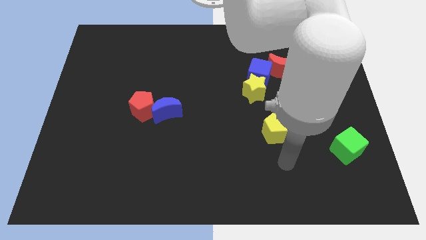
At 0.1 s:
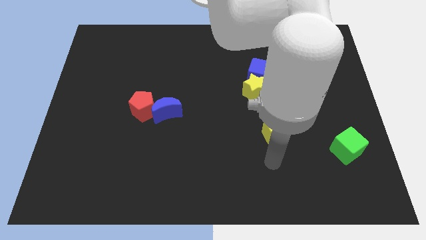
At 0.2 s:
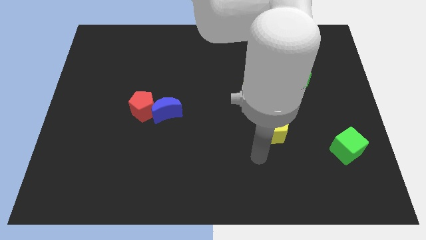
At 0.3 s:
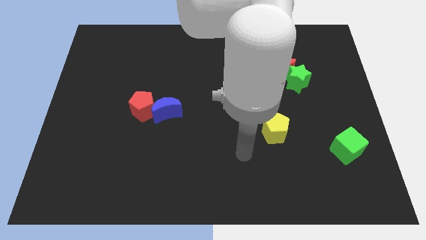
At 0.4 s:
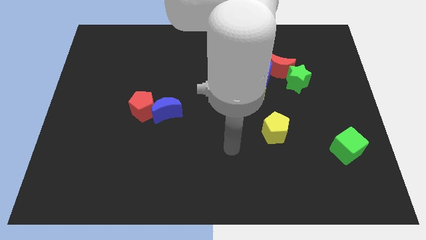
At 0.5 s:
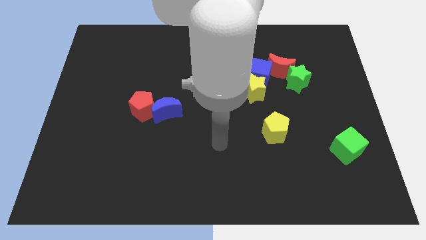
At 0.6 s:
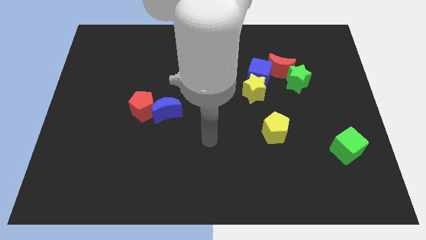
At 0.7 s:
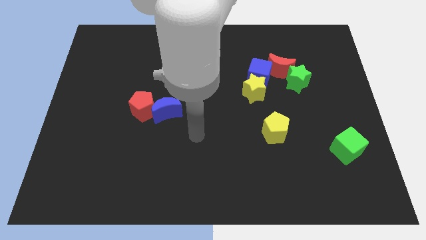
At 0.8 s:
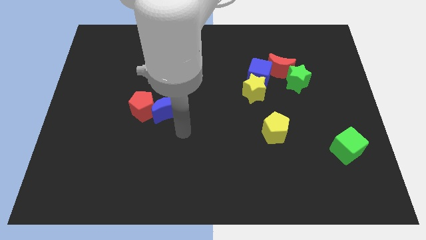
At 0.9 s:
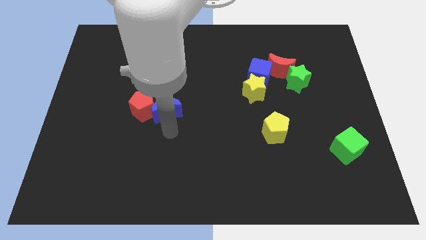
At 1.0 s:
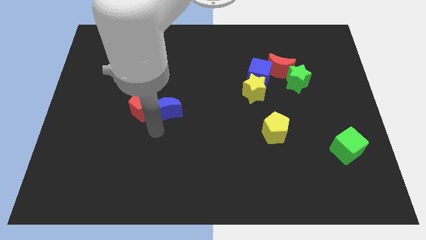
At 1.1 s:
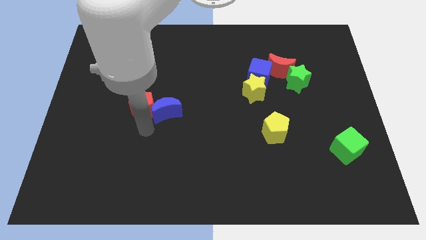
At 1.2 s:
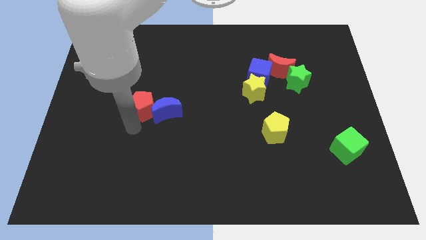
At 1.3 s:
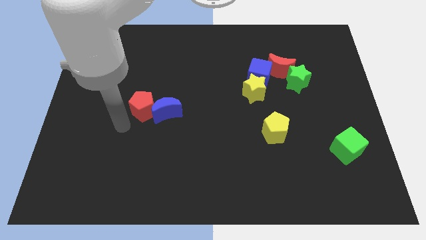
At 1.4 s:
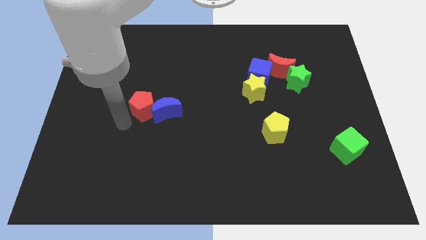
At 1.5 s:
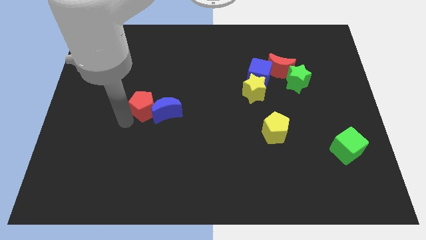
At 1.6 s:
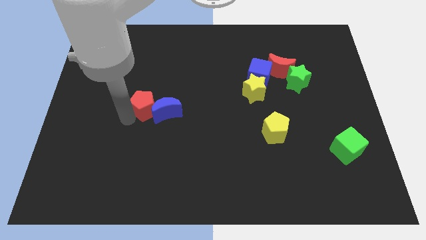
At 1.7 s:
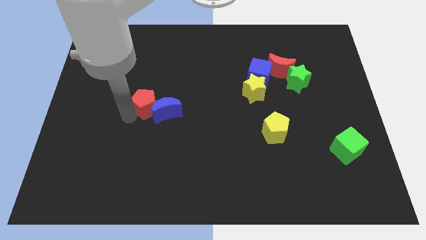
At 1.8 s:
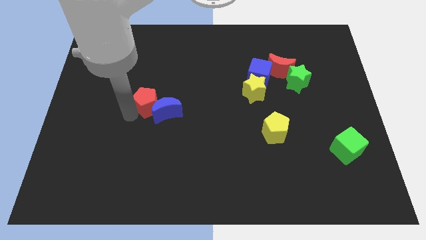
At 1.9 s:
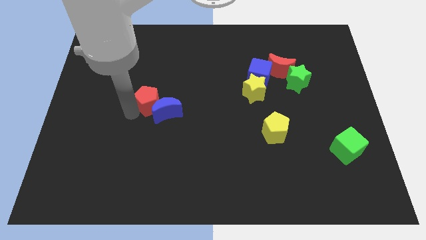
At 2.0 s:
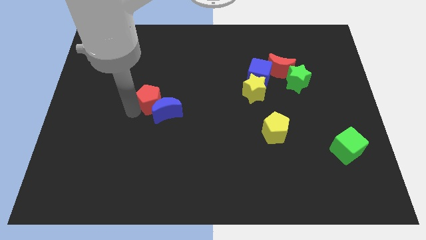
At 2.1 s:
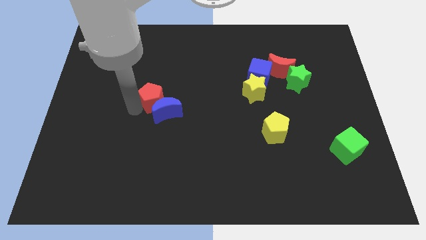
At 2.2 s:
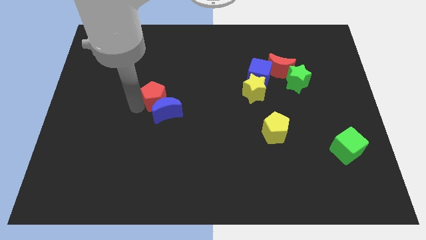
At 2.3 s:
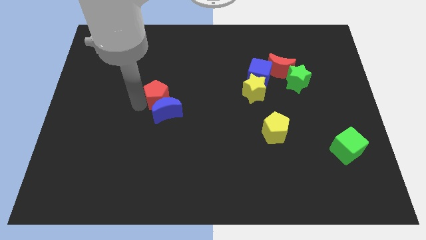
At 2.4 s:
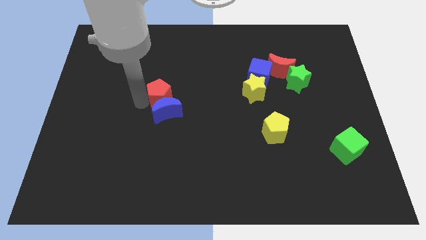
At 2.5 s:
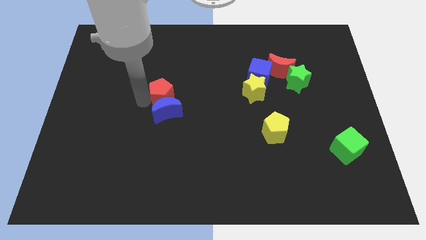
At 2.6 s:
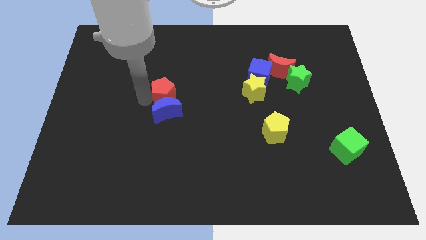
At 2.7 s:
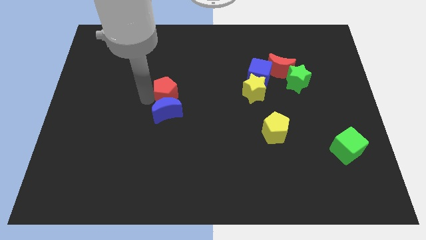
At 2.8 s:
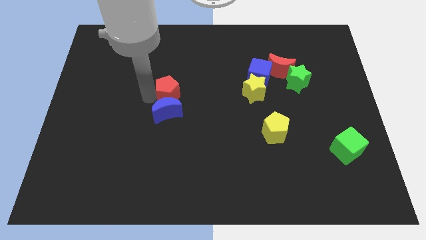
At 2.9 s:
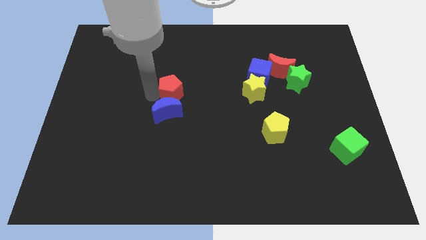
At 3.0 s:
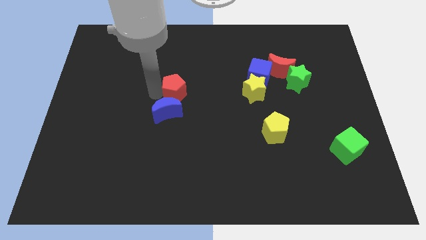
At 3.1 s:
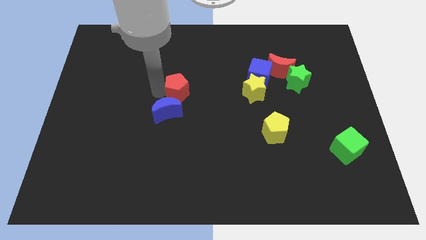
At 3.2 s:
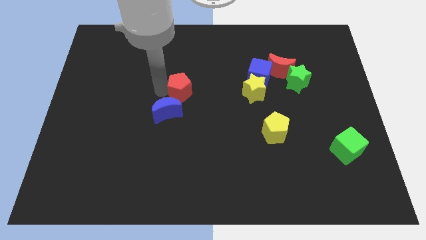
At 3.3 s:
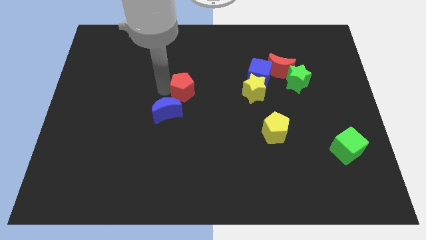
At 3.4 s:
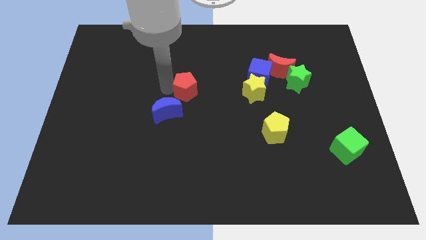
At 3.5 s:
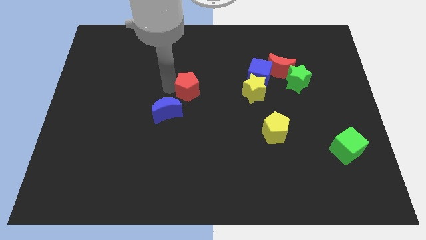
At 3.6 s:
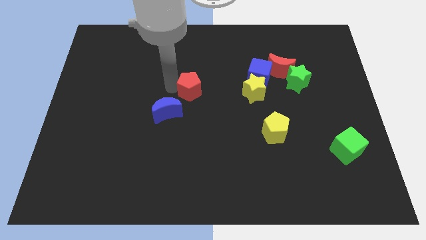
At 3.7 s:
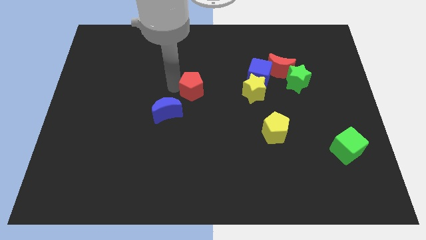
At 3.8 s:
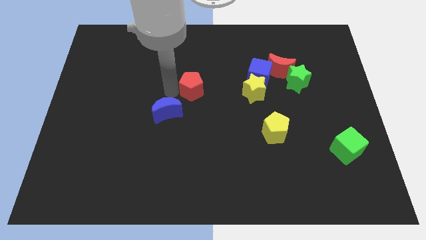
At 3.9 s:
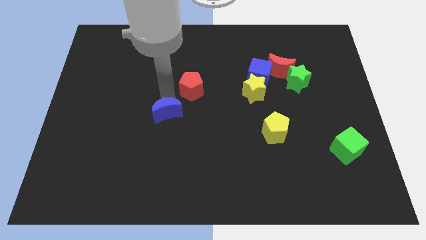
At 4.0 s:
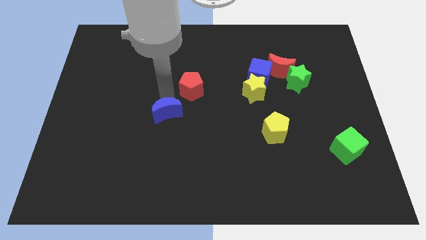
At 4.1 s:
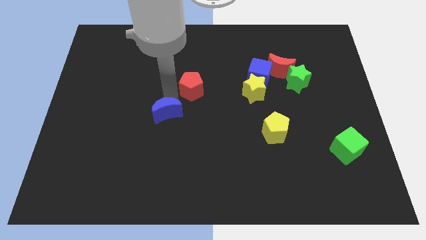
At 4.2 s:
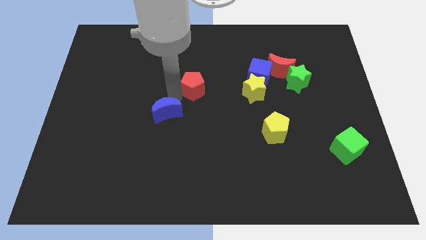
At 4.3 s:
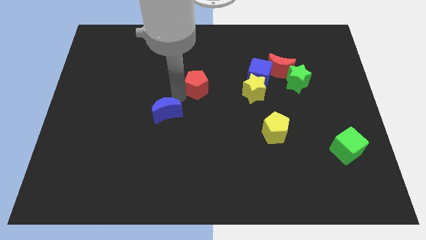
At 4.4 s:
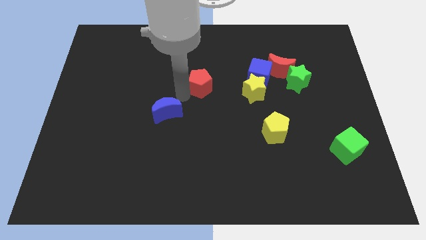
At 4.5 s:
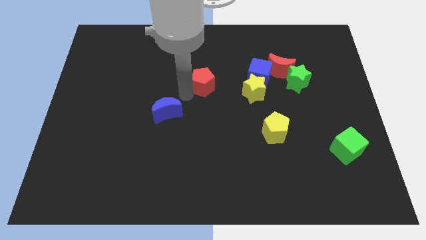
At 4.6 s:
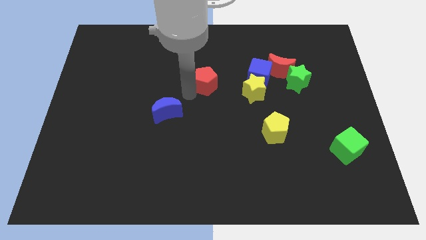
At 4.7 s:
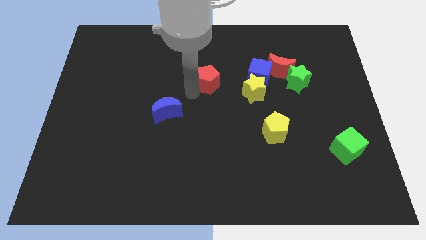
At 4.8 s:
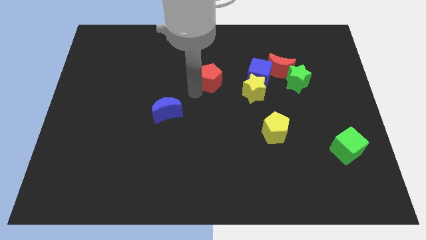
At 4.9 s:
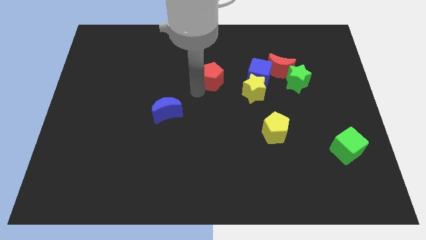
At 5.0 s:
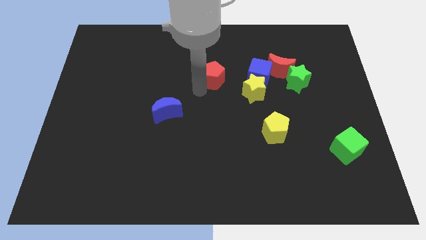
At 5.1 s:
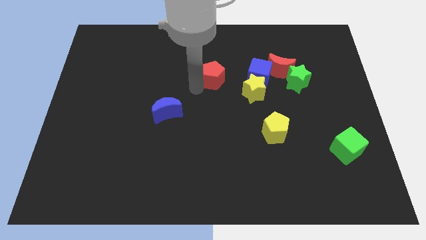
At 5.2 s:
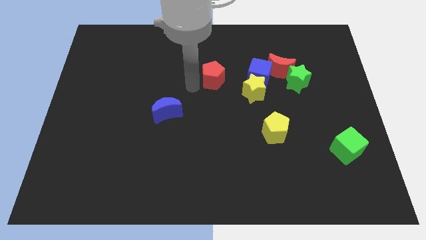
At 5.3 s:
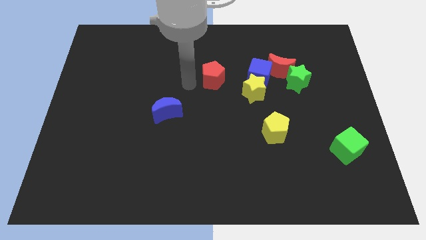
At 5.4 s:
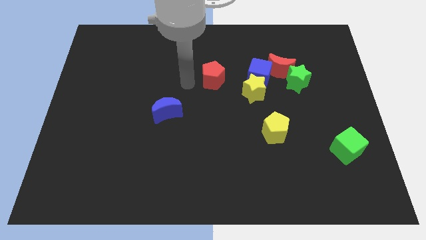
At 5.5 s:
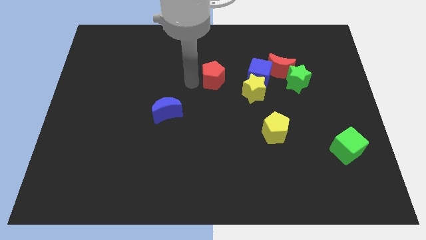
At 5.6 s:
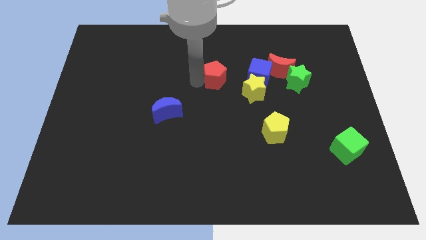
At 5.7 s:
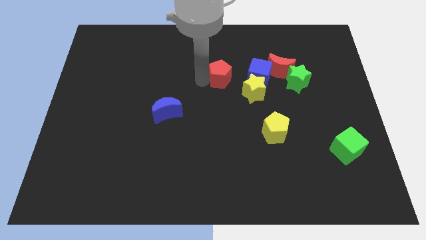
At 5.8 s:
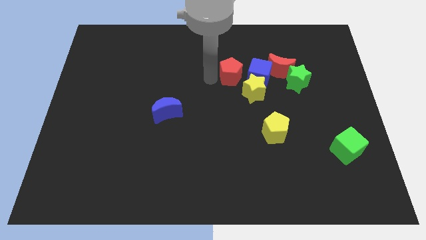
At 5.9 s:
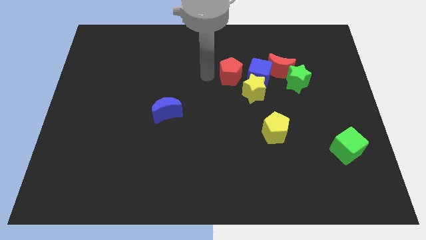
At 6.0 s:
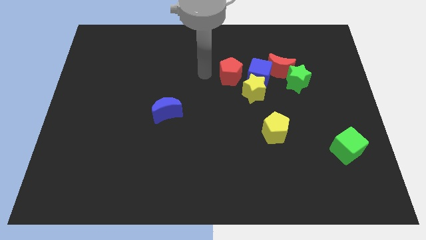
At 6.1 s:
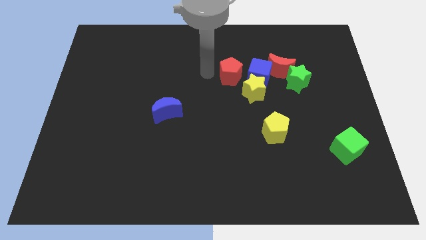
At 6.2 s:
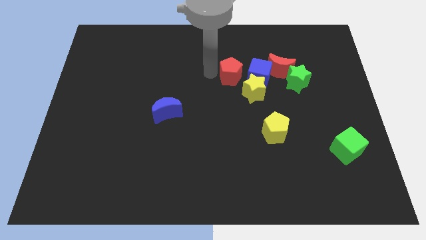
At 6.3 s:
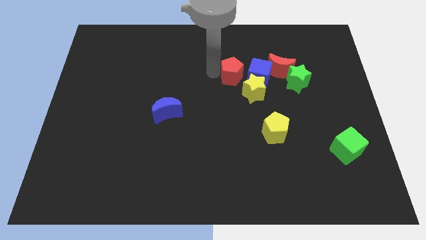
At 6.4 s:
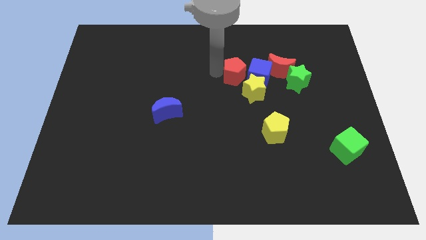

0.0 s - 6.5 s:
slide the red pentagon to the blue cube
